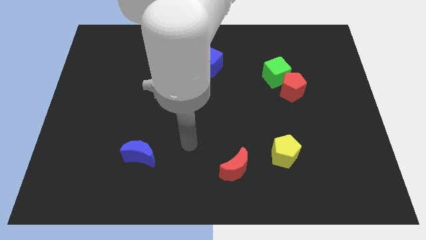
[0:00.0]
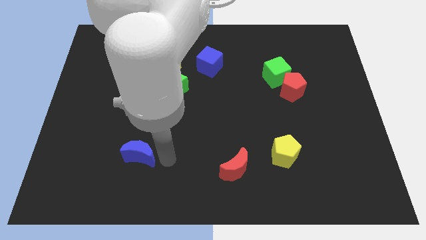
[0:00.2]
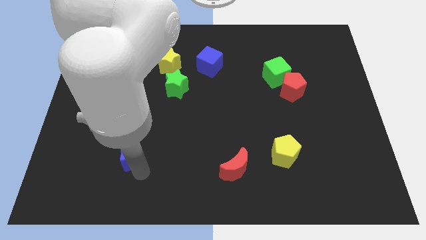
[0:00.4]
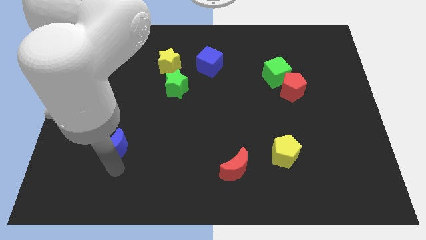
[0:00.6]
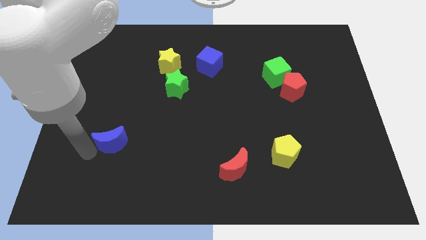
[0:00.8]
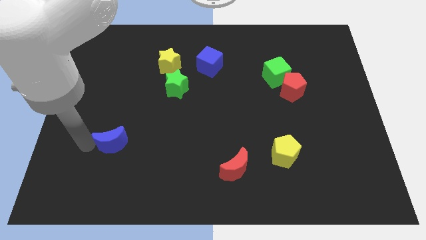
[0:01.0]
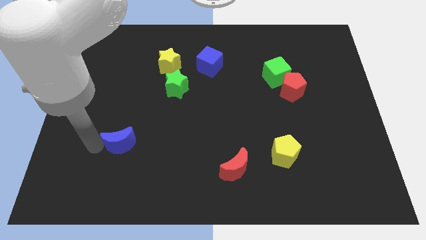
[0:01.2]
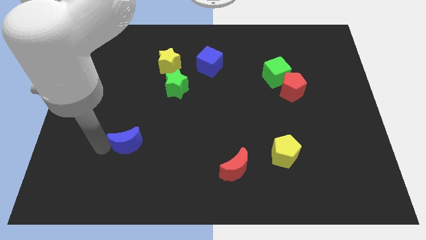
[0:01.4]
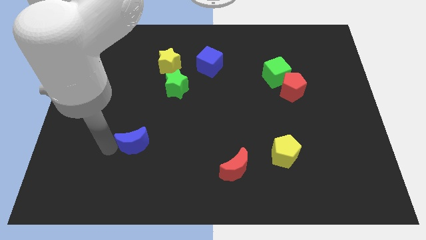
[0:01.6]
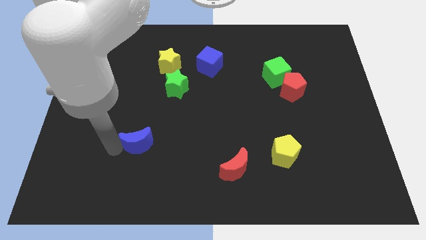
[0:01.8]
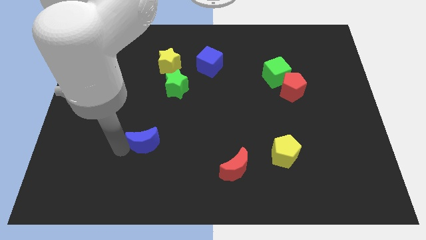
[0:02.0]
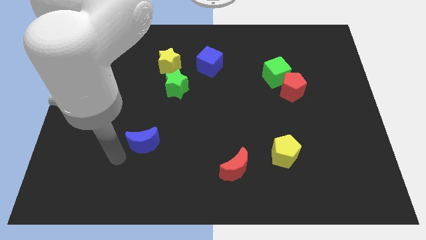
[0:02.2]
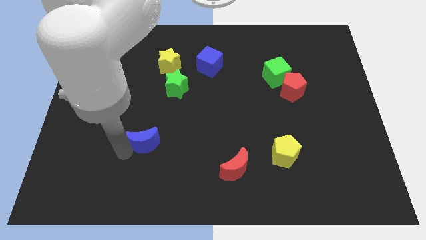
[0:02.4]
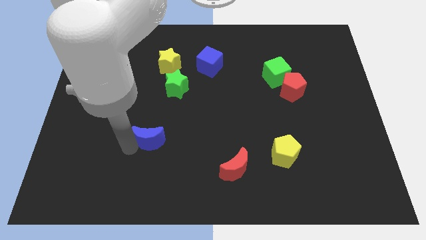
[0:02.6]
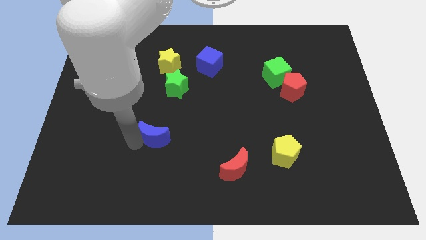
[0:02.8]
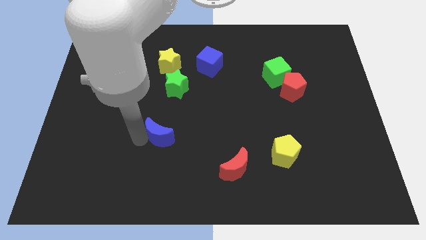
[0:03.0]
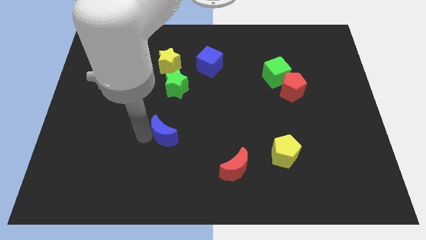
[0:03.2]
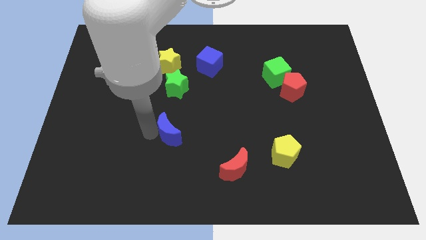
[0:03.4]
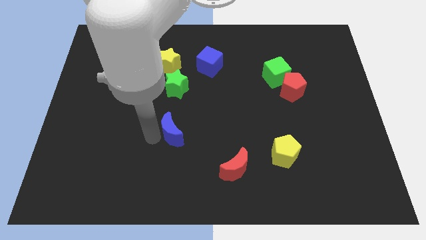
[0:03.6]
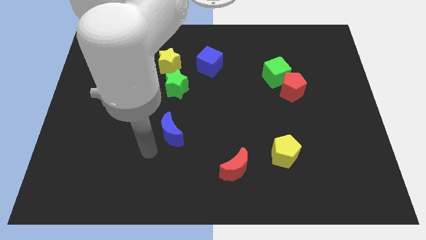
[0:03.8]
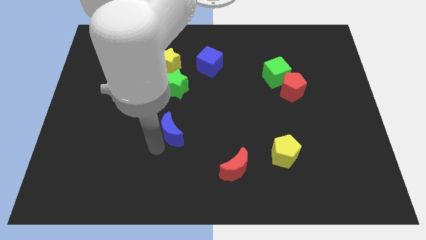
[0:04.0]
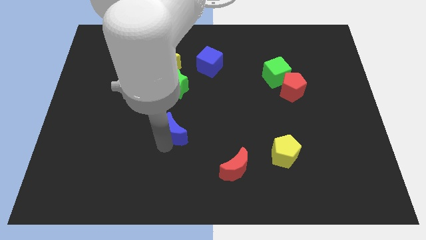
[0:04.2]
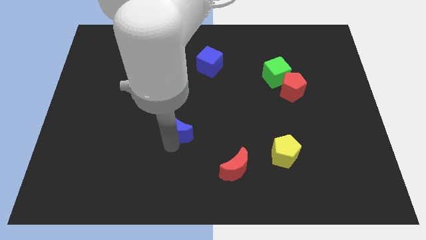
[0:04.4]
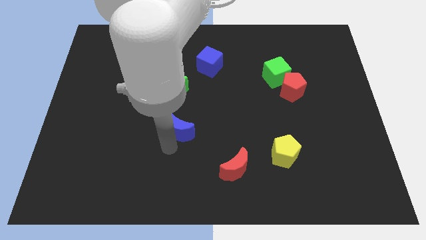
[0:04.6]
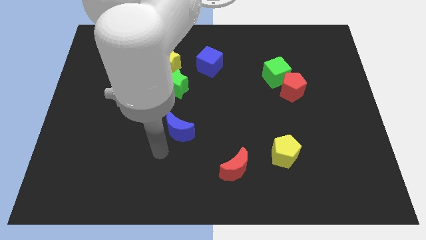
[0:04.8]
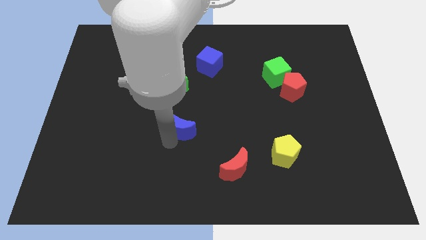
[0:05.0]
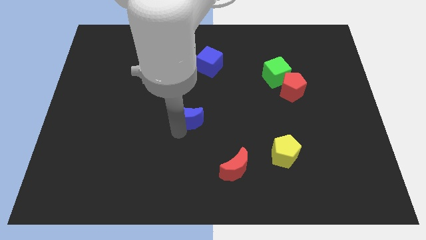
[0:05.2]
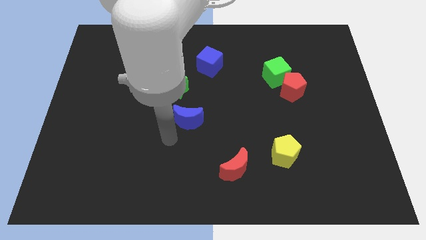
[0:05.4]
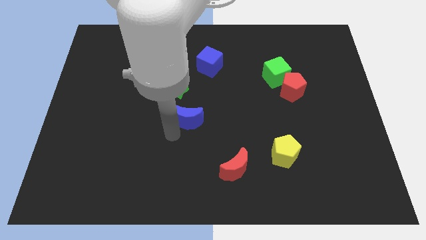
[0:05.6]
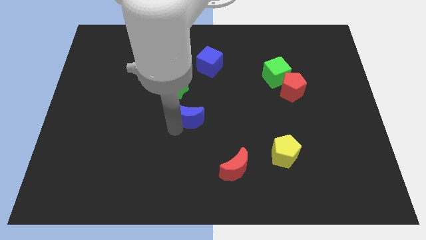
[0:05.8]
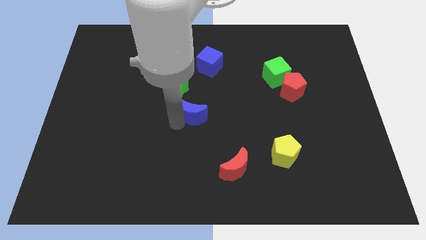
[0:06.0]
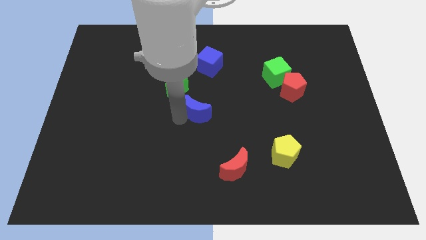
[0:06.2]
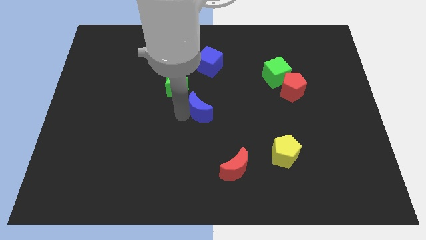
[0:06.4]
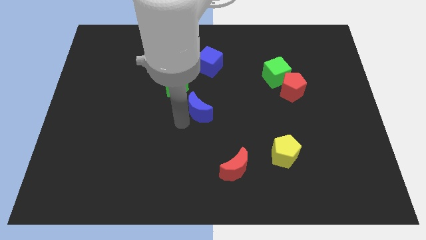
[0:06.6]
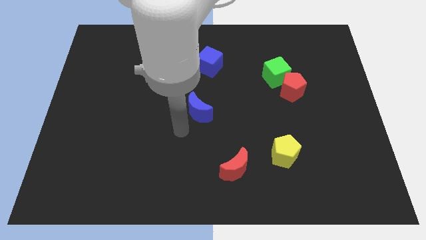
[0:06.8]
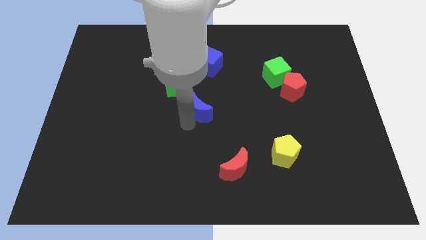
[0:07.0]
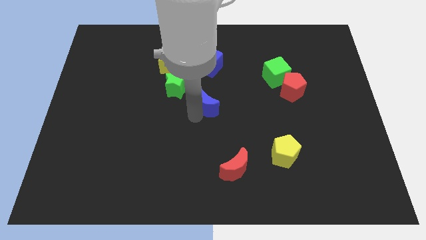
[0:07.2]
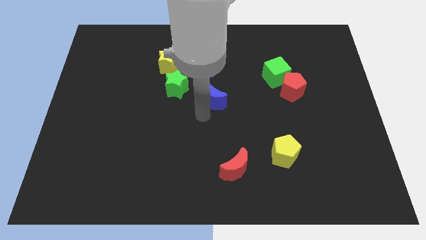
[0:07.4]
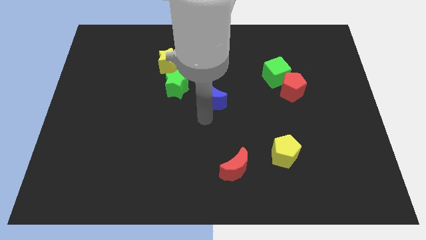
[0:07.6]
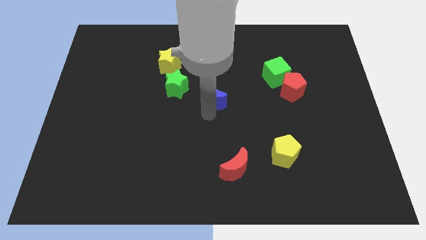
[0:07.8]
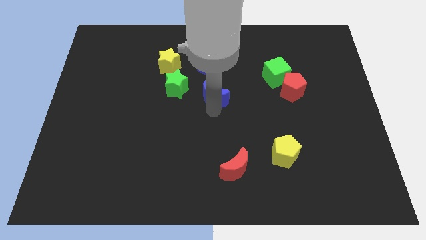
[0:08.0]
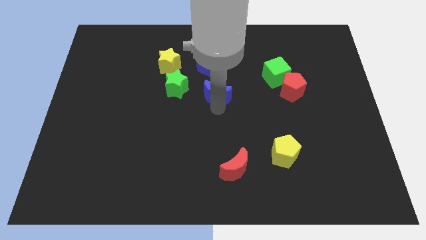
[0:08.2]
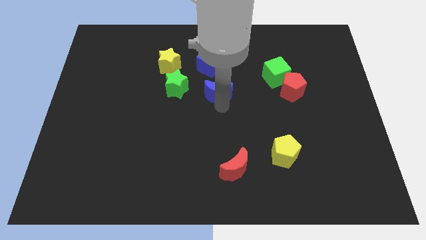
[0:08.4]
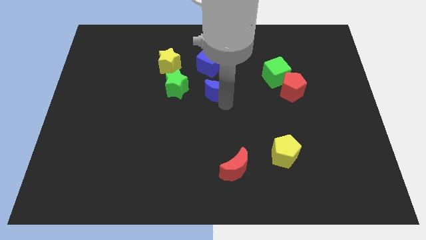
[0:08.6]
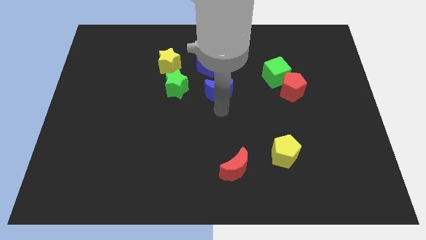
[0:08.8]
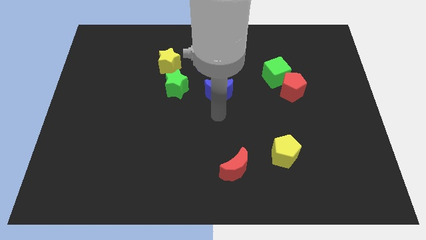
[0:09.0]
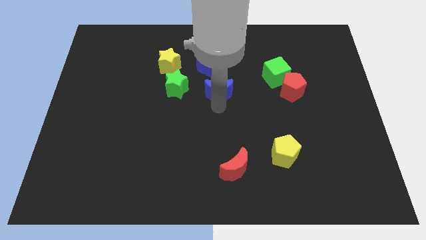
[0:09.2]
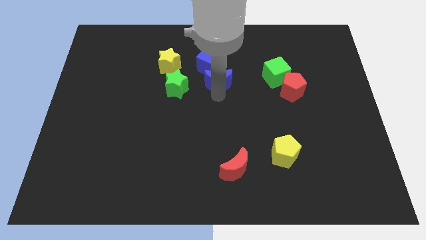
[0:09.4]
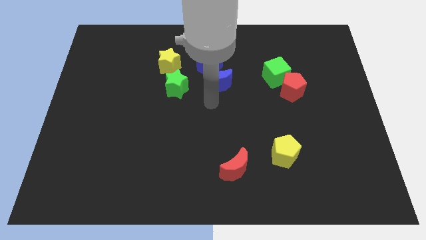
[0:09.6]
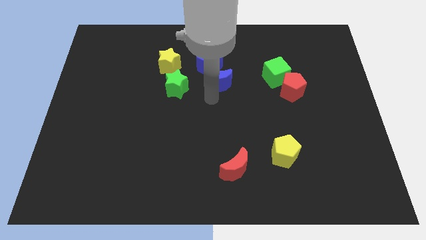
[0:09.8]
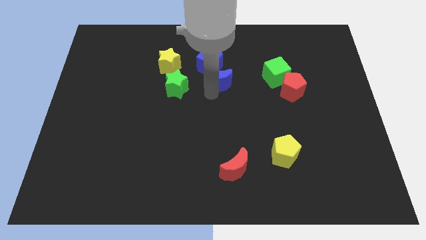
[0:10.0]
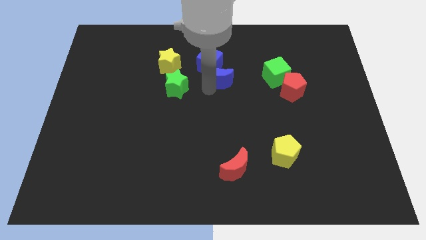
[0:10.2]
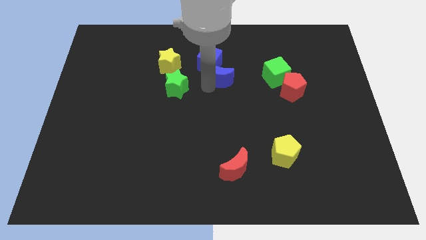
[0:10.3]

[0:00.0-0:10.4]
slide the blue moon to the right side of the yellow star

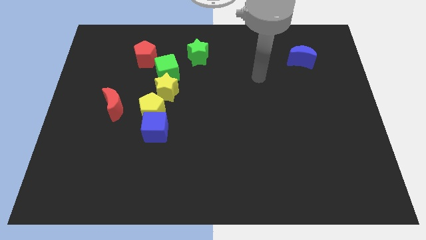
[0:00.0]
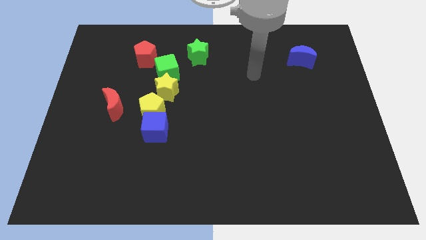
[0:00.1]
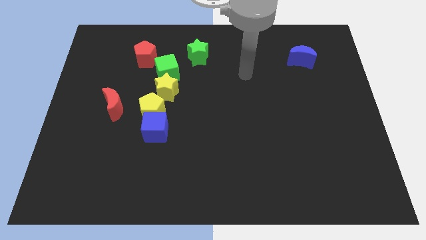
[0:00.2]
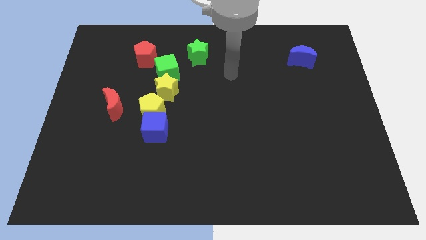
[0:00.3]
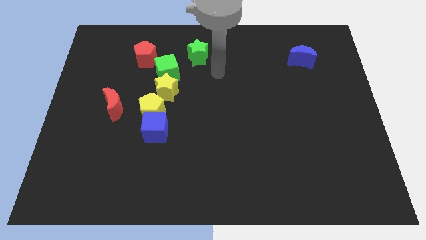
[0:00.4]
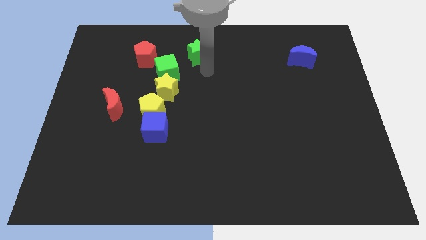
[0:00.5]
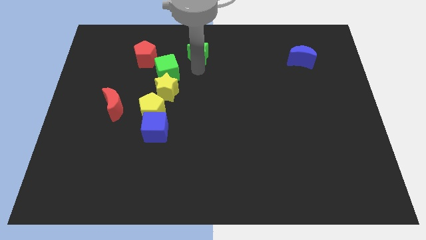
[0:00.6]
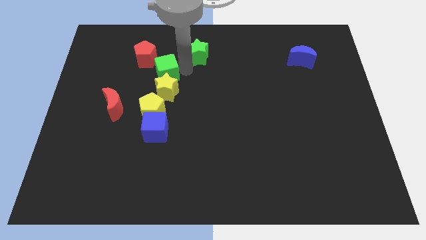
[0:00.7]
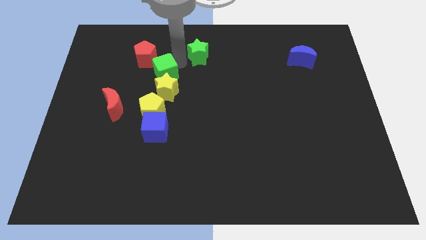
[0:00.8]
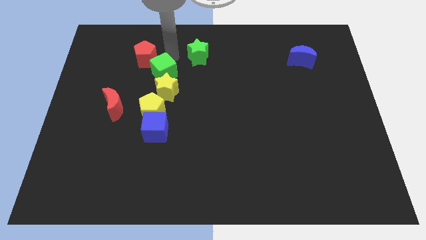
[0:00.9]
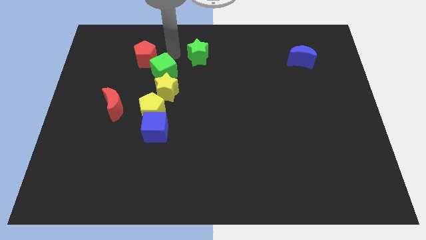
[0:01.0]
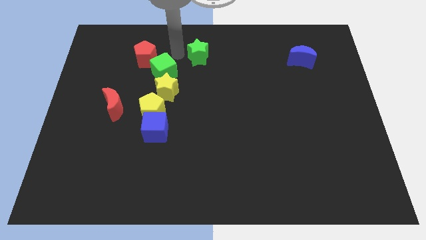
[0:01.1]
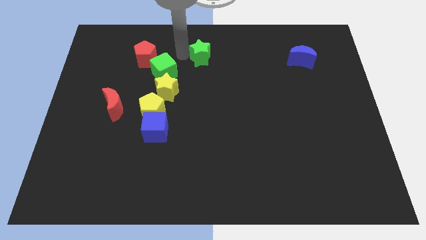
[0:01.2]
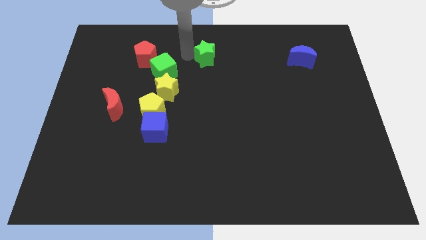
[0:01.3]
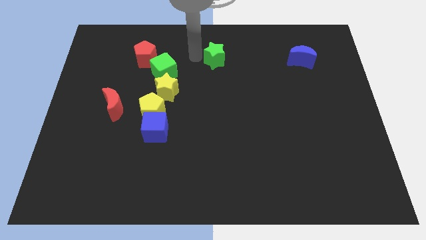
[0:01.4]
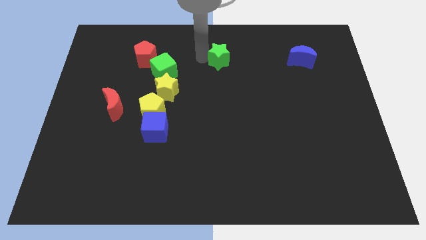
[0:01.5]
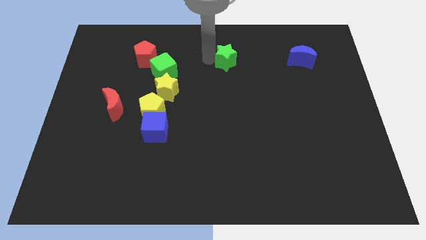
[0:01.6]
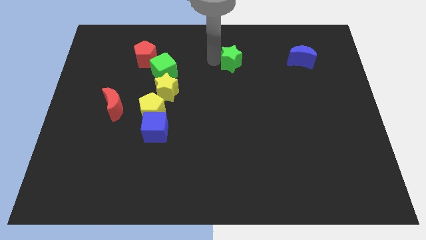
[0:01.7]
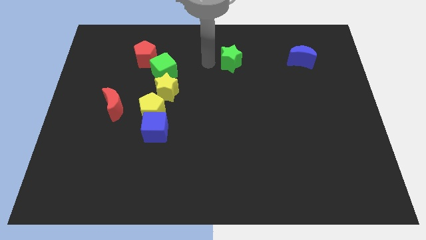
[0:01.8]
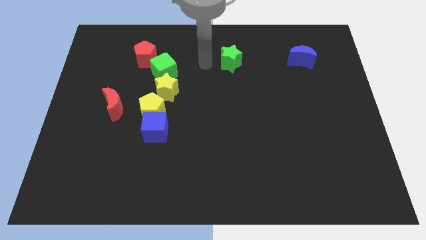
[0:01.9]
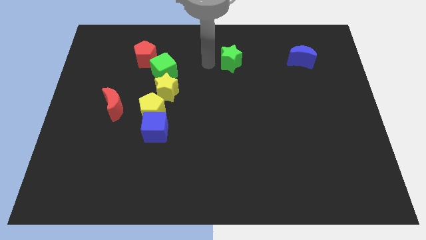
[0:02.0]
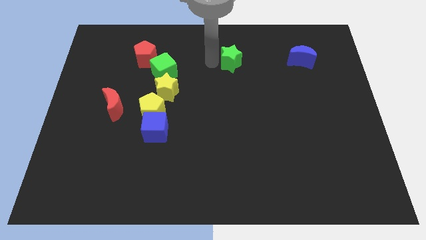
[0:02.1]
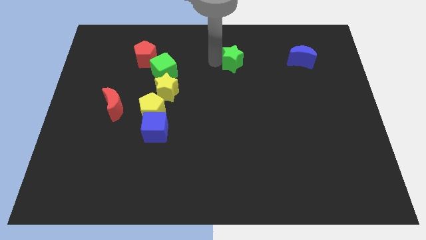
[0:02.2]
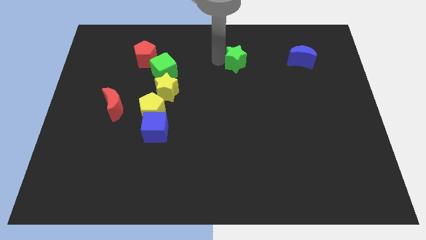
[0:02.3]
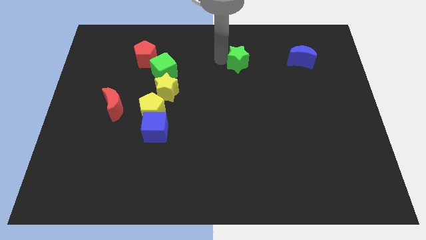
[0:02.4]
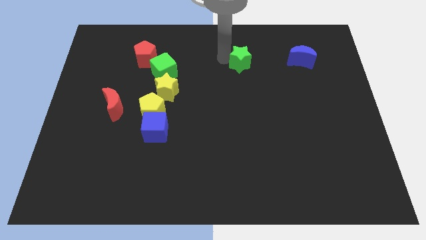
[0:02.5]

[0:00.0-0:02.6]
slide the green star to the left of the blue moon
